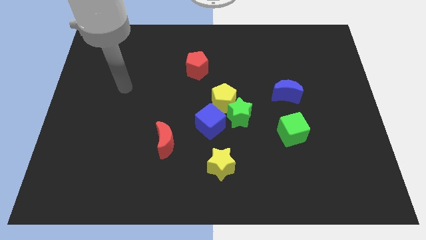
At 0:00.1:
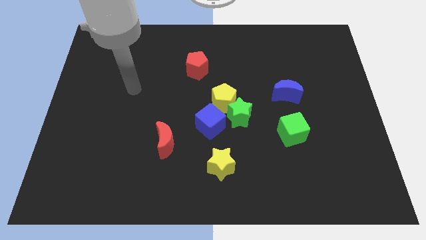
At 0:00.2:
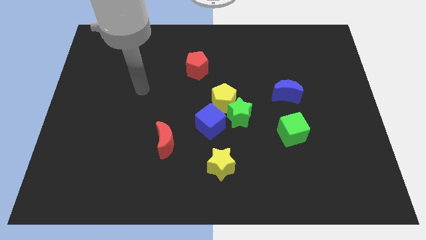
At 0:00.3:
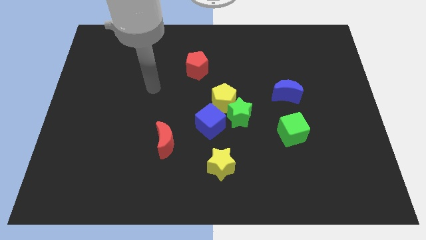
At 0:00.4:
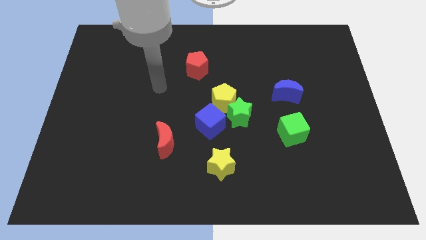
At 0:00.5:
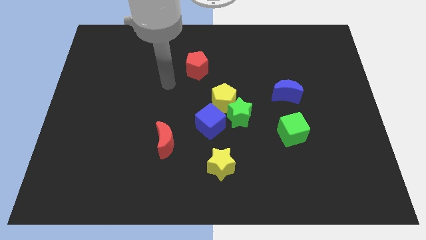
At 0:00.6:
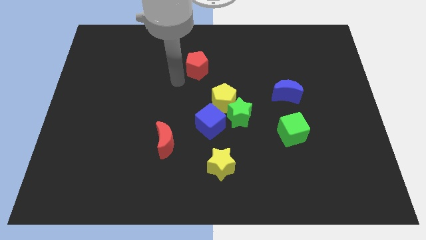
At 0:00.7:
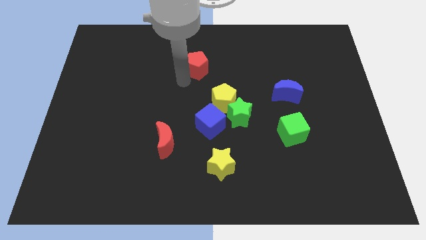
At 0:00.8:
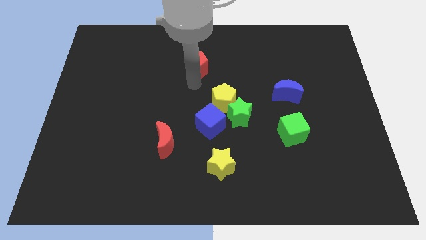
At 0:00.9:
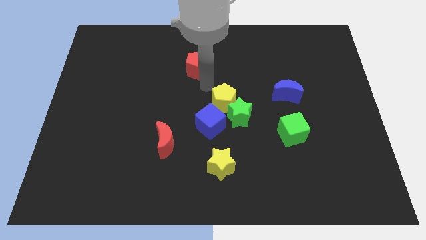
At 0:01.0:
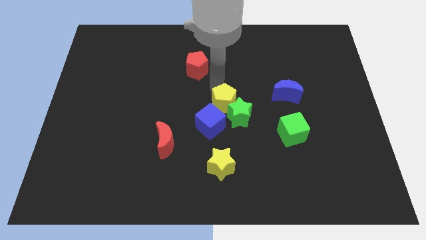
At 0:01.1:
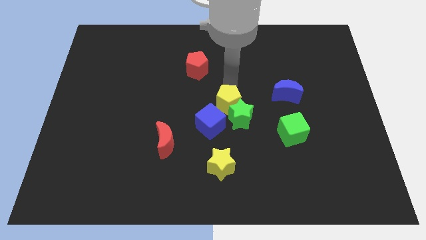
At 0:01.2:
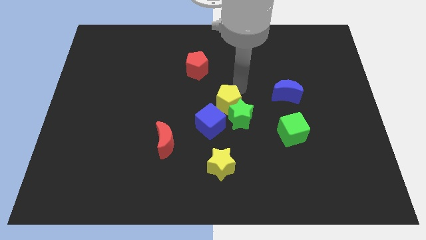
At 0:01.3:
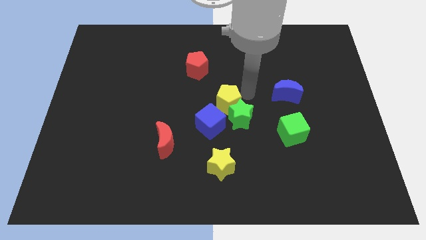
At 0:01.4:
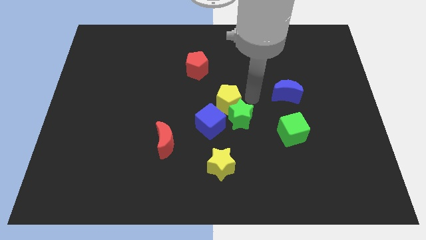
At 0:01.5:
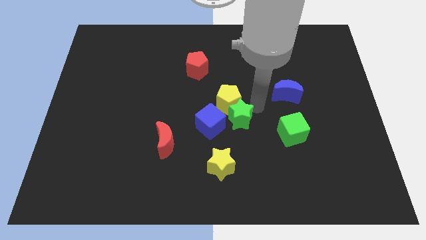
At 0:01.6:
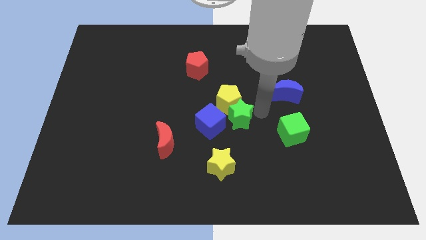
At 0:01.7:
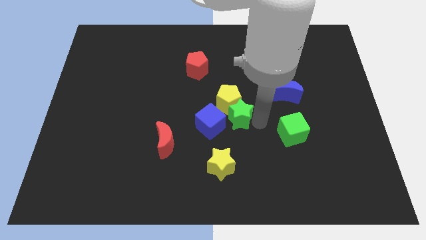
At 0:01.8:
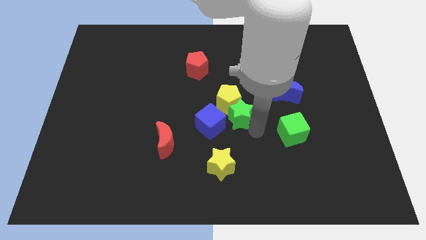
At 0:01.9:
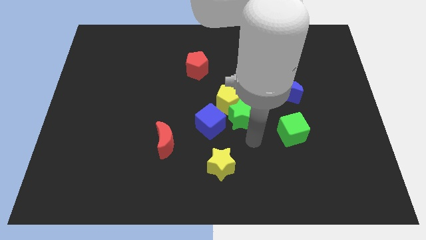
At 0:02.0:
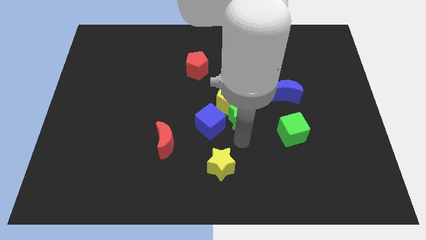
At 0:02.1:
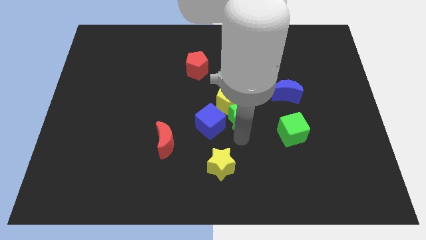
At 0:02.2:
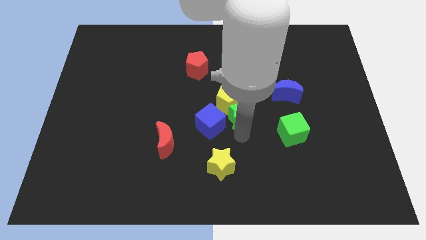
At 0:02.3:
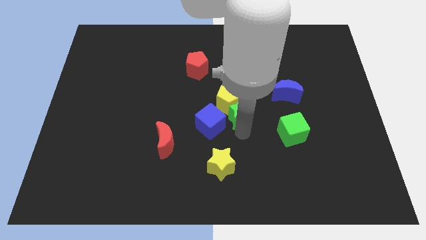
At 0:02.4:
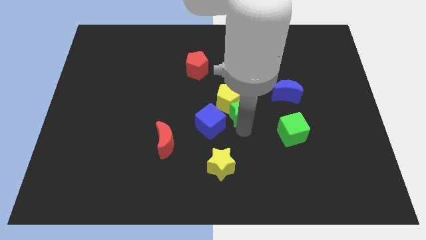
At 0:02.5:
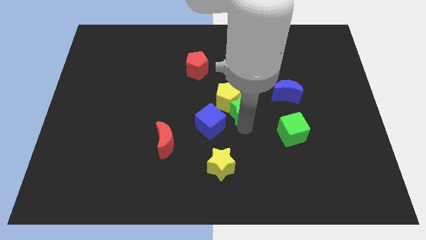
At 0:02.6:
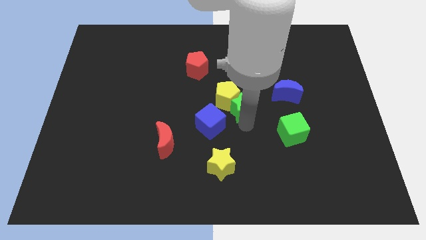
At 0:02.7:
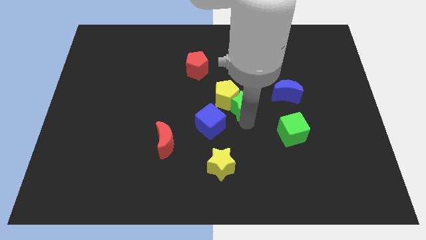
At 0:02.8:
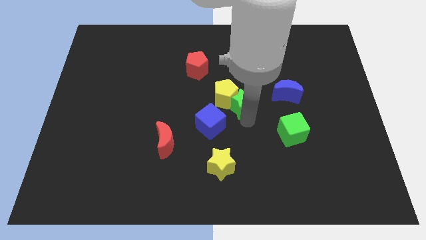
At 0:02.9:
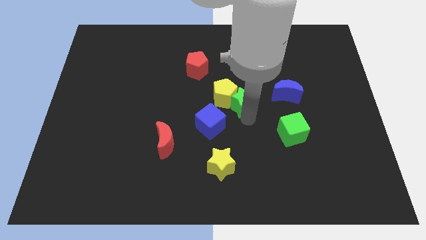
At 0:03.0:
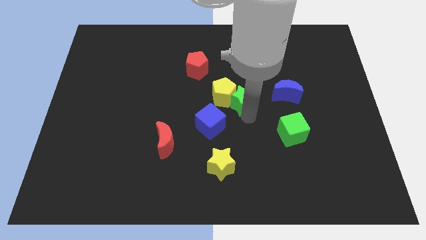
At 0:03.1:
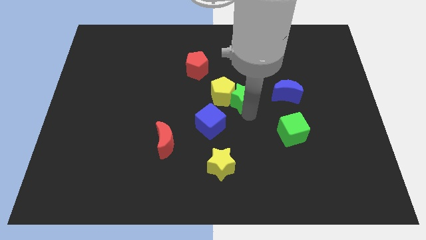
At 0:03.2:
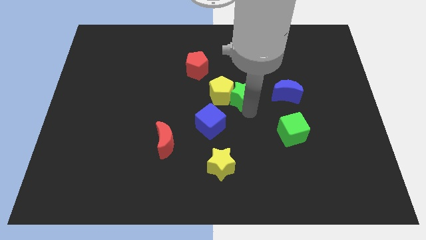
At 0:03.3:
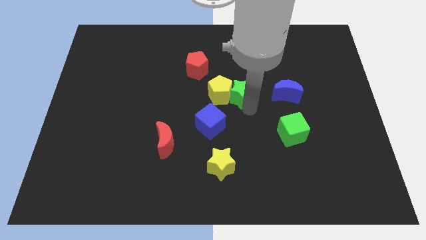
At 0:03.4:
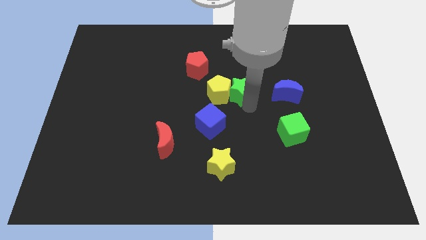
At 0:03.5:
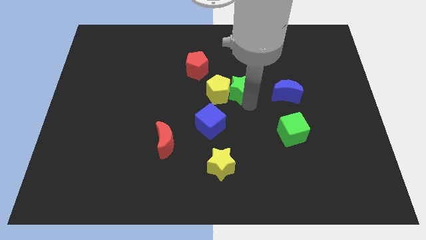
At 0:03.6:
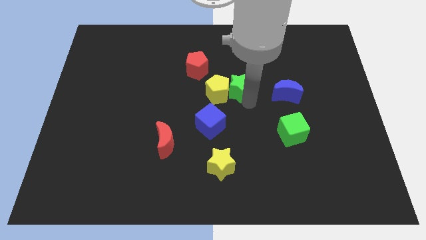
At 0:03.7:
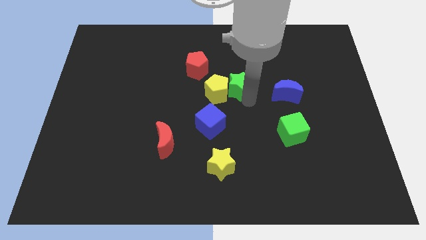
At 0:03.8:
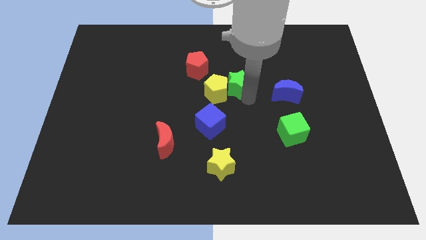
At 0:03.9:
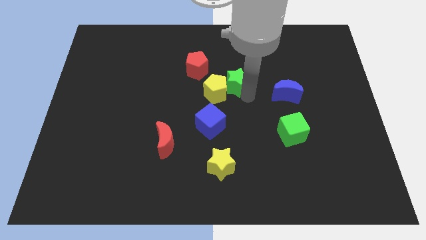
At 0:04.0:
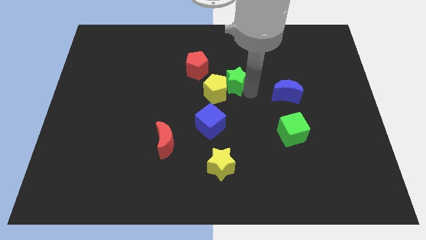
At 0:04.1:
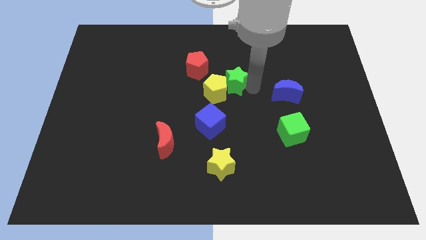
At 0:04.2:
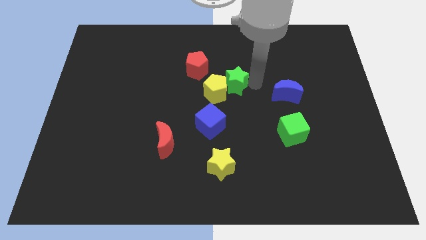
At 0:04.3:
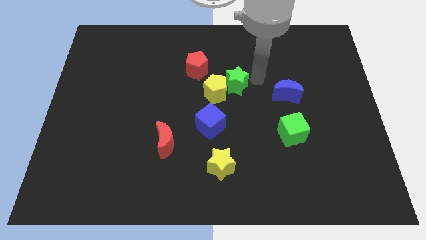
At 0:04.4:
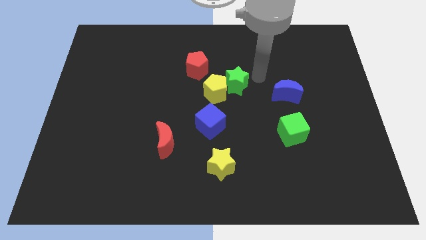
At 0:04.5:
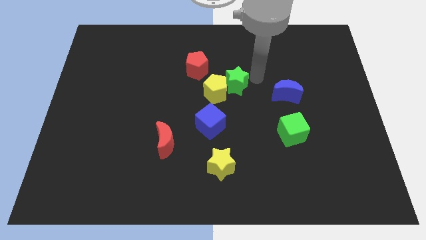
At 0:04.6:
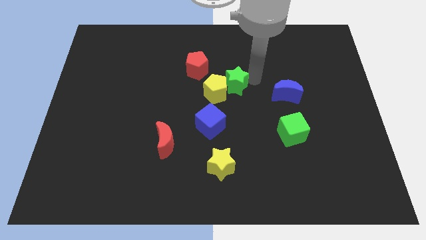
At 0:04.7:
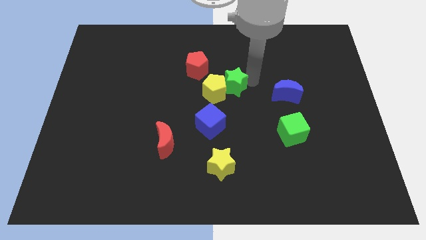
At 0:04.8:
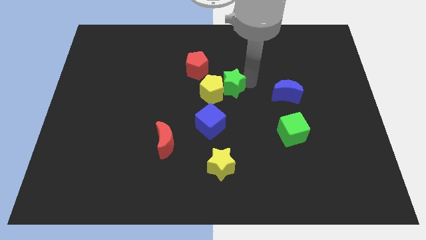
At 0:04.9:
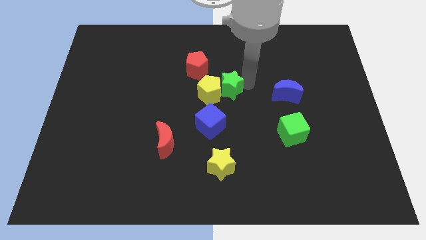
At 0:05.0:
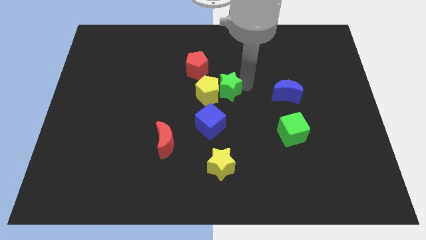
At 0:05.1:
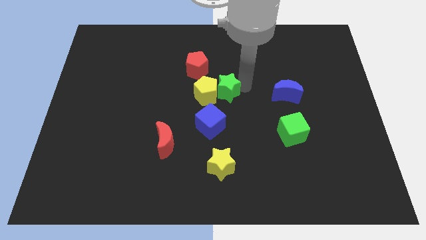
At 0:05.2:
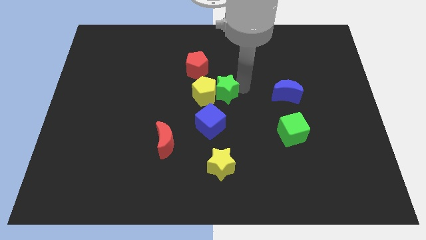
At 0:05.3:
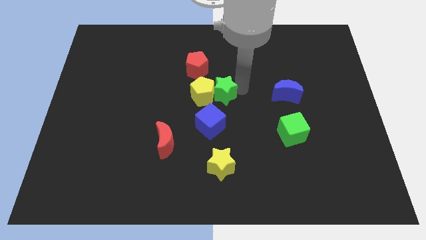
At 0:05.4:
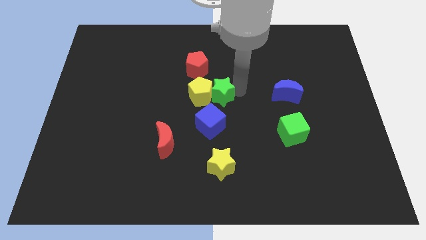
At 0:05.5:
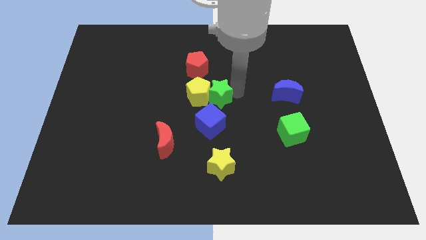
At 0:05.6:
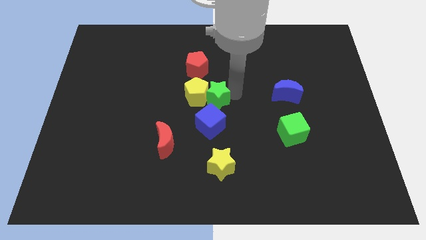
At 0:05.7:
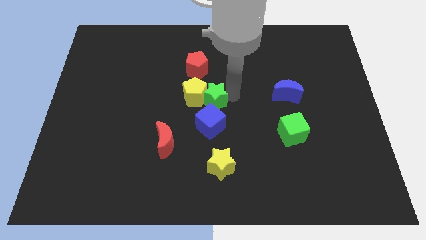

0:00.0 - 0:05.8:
put the green star to the bottom side of the red pentagon
